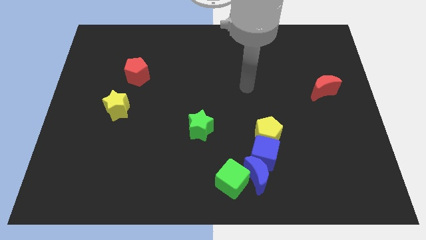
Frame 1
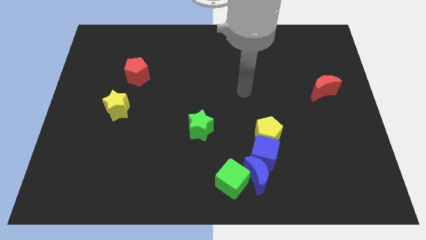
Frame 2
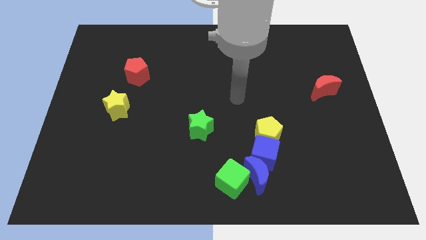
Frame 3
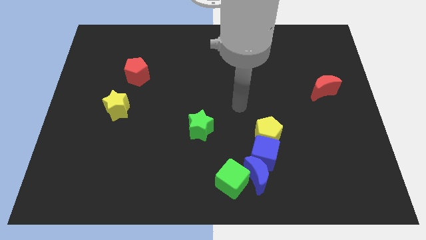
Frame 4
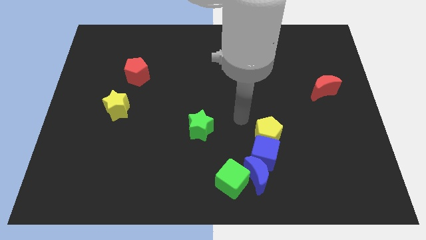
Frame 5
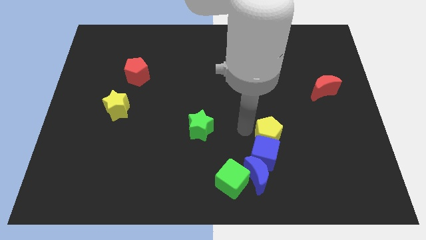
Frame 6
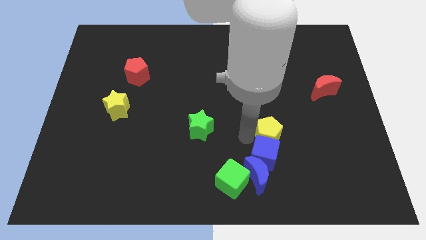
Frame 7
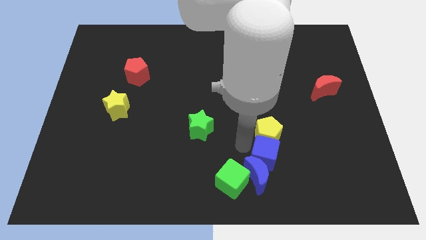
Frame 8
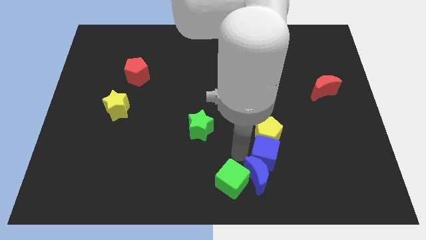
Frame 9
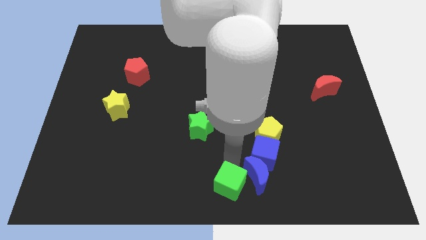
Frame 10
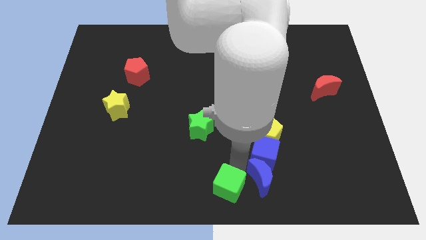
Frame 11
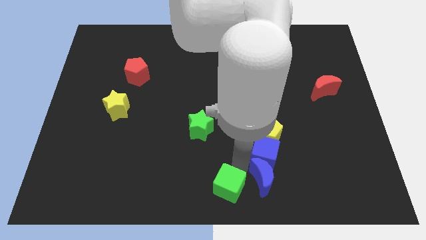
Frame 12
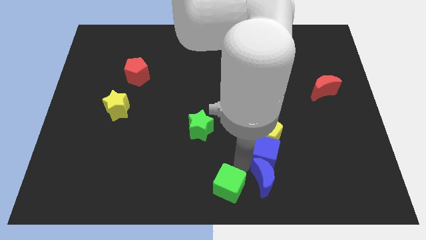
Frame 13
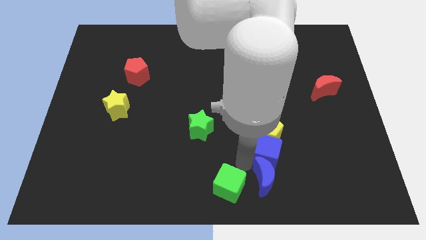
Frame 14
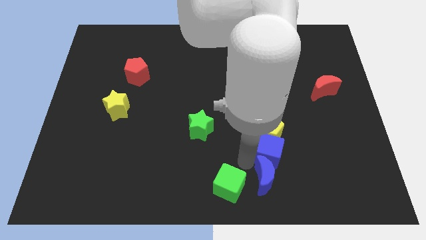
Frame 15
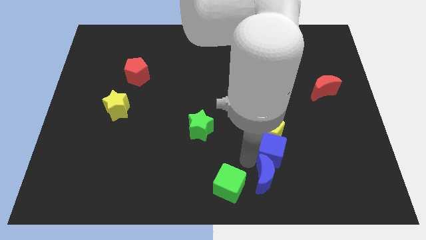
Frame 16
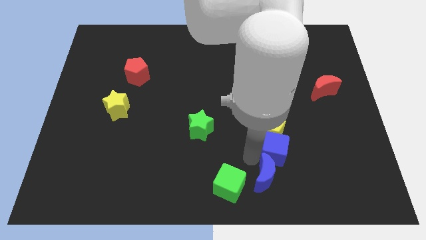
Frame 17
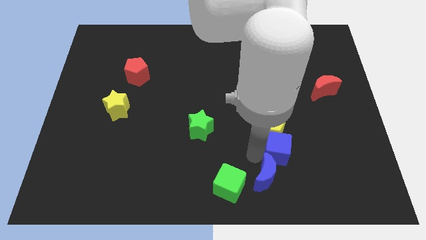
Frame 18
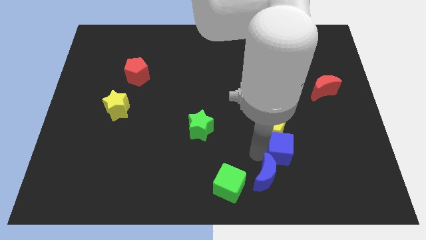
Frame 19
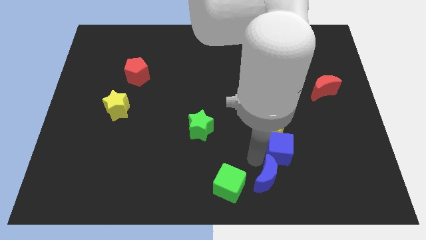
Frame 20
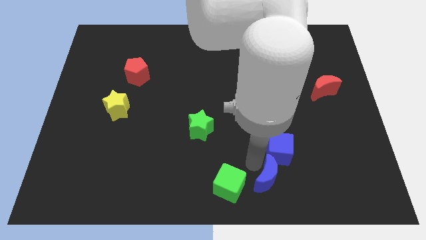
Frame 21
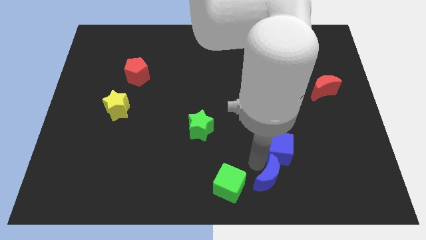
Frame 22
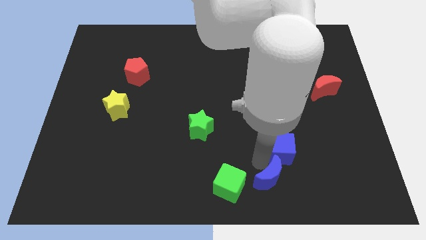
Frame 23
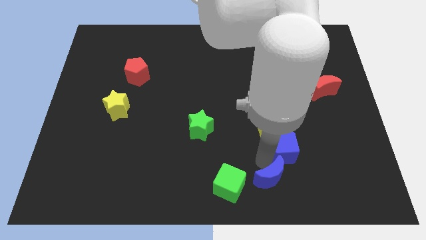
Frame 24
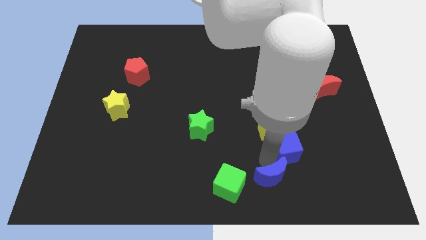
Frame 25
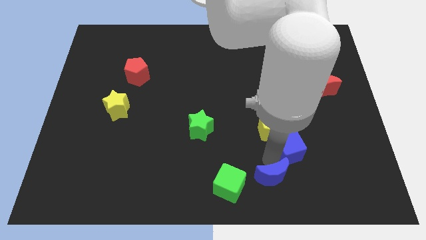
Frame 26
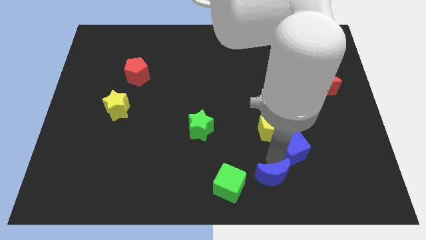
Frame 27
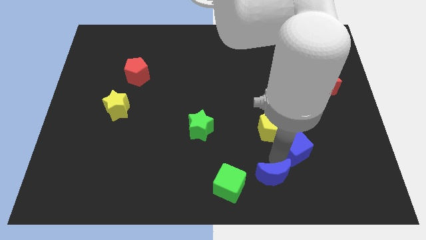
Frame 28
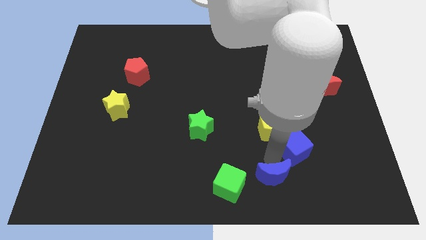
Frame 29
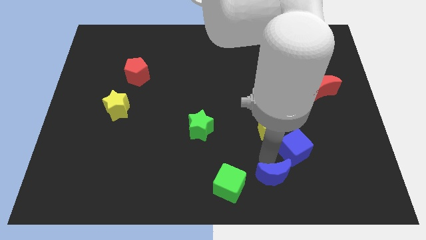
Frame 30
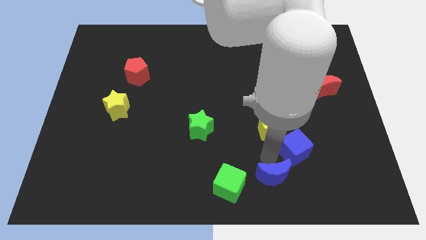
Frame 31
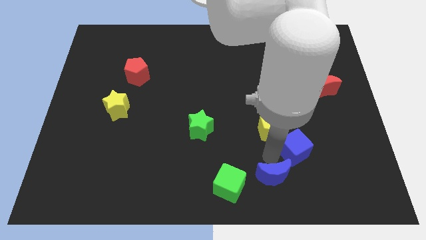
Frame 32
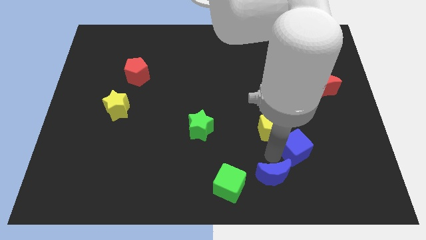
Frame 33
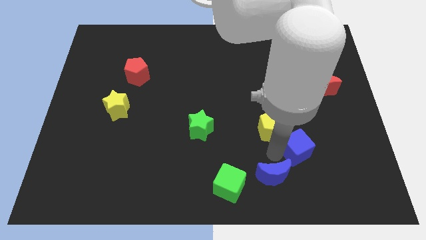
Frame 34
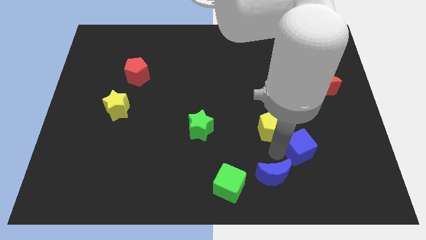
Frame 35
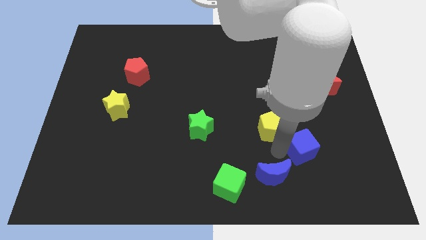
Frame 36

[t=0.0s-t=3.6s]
pull the blue cube apart from the blue moon, yellow pentagon, and green cube

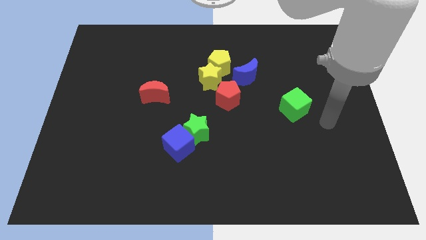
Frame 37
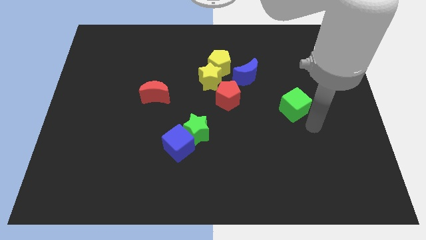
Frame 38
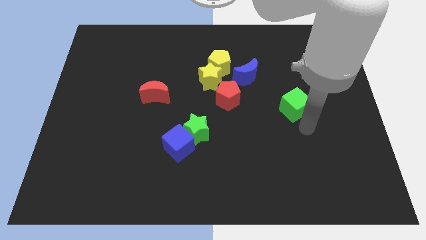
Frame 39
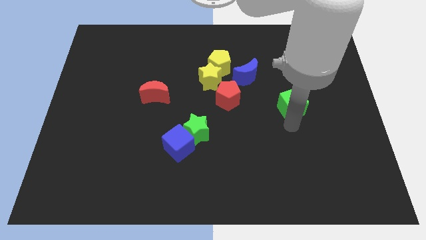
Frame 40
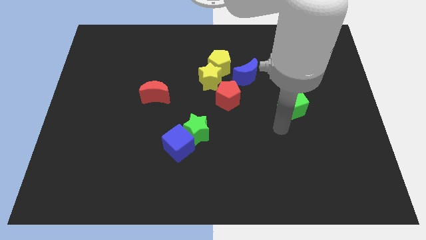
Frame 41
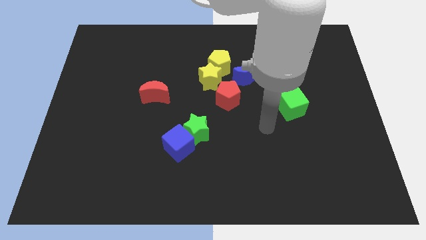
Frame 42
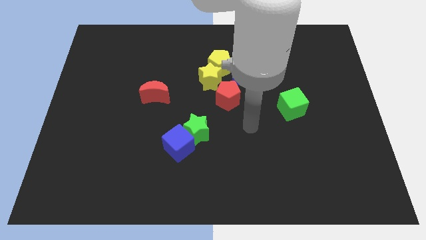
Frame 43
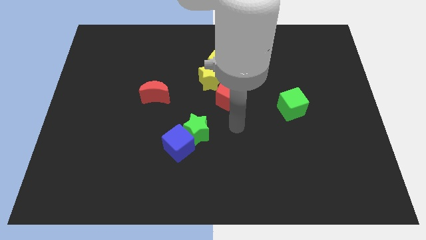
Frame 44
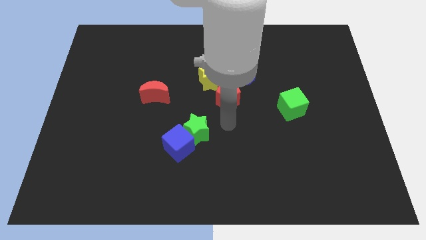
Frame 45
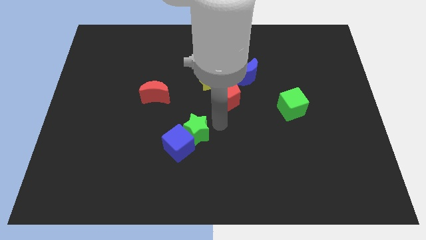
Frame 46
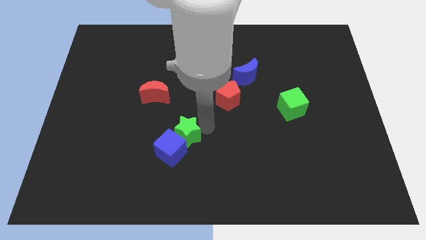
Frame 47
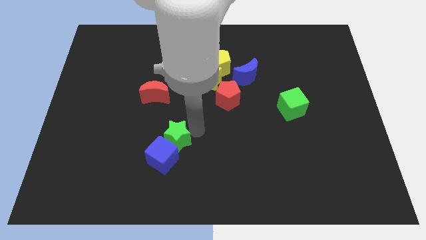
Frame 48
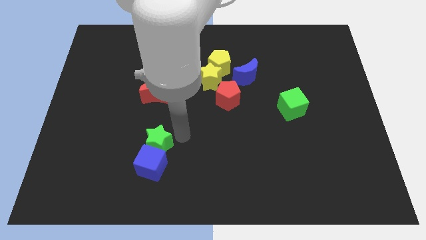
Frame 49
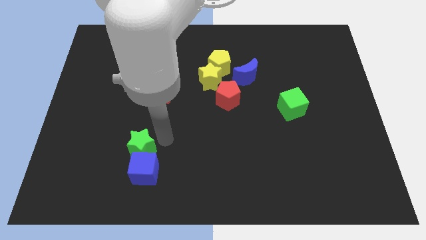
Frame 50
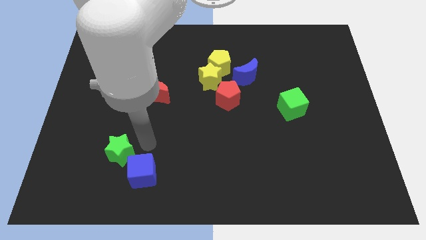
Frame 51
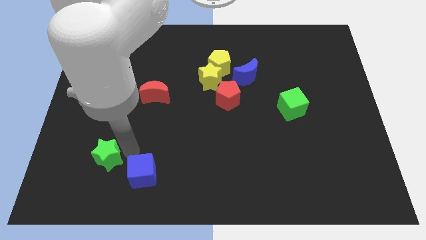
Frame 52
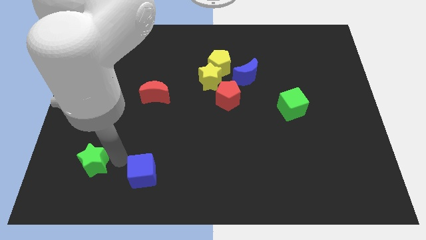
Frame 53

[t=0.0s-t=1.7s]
move the blue cube away from the green star

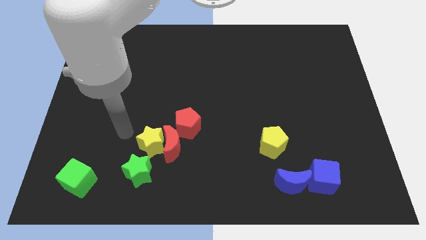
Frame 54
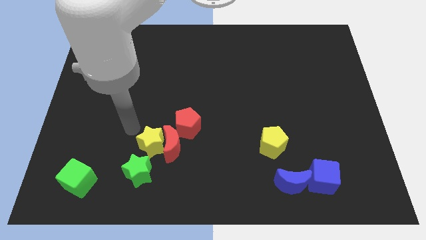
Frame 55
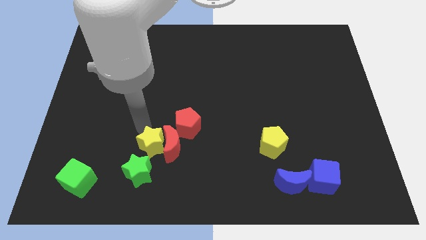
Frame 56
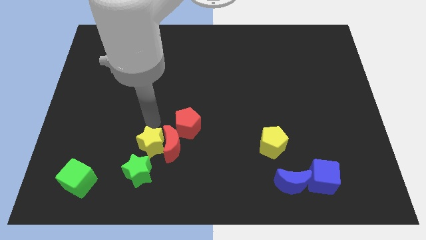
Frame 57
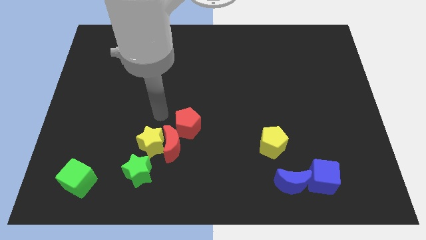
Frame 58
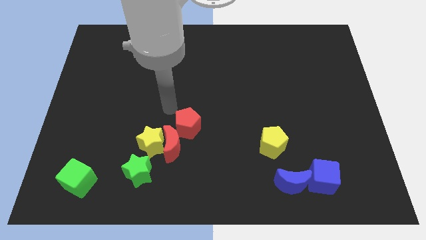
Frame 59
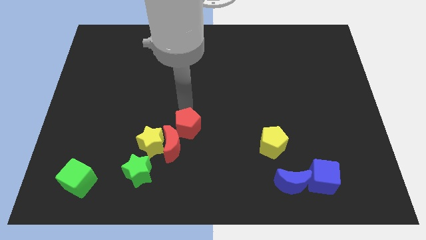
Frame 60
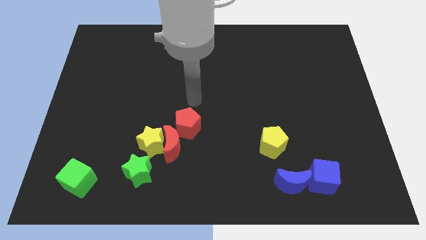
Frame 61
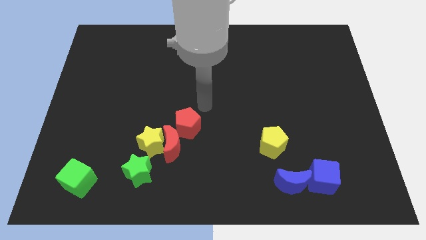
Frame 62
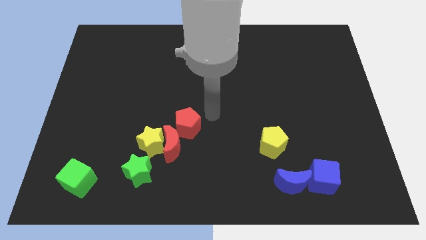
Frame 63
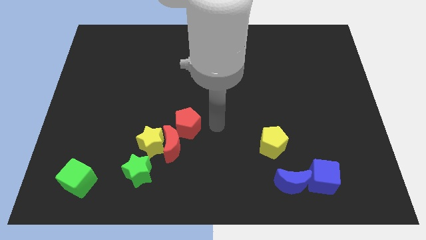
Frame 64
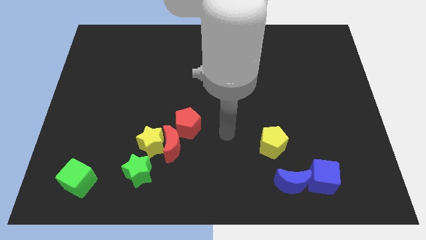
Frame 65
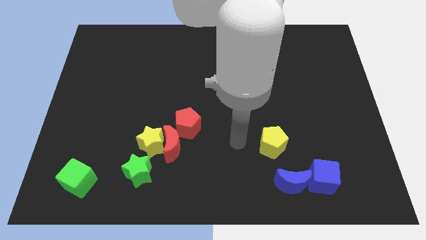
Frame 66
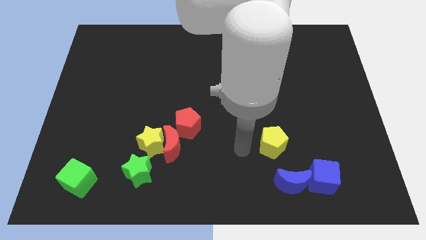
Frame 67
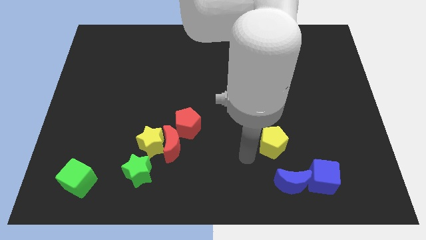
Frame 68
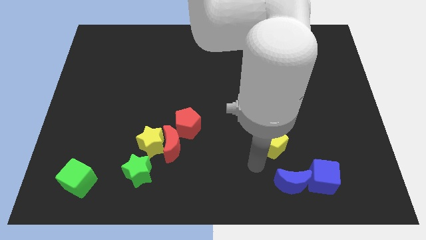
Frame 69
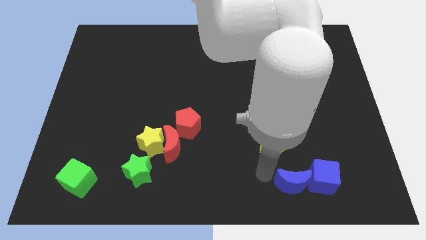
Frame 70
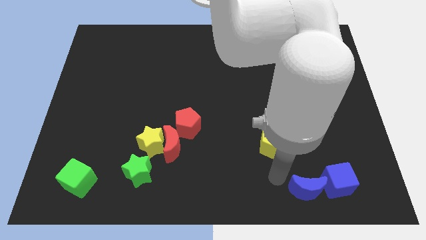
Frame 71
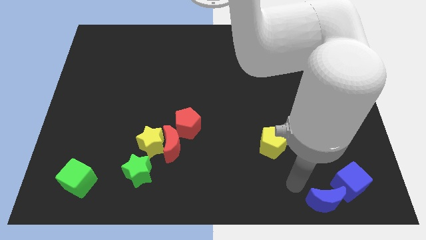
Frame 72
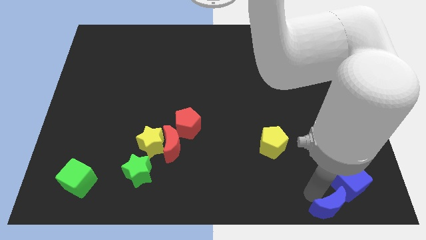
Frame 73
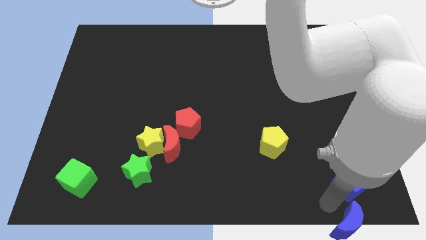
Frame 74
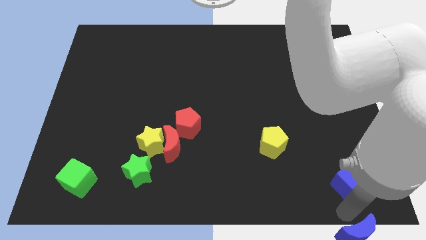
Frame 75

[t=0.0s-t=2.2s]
pull the blue cube apart from the blue moon

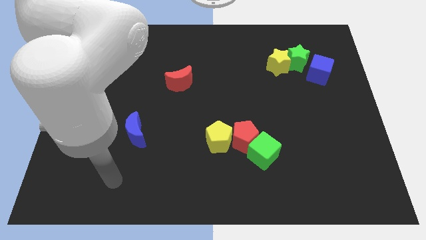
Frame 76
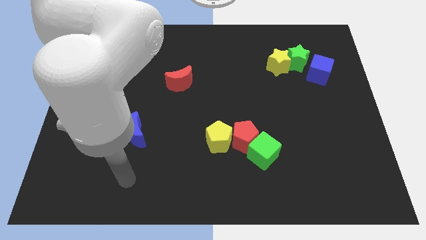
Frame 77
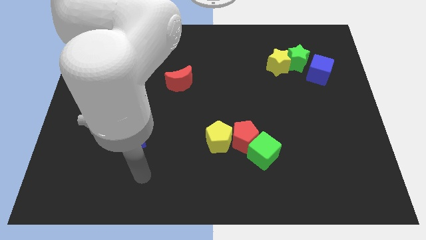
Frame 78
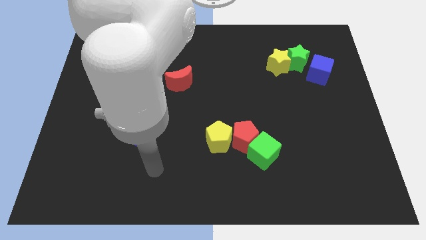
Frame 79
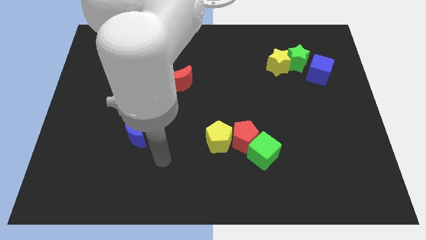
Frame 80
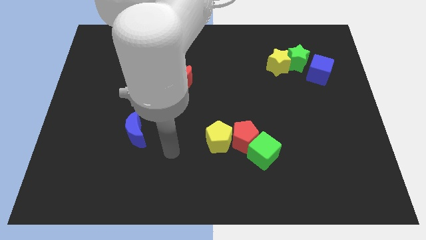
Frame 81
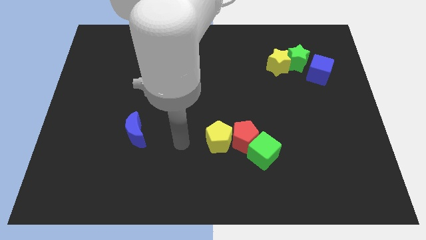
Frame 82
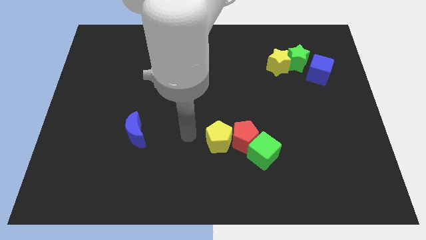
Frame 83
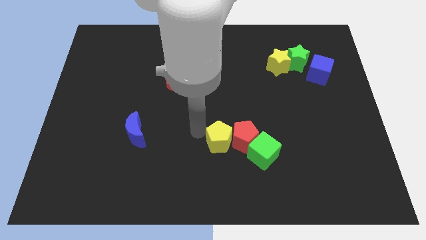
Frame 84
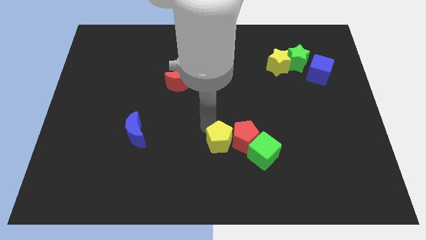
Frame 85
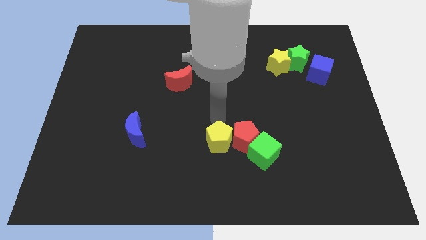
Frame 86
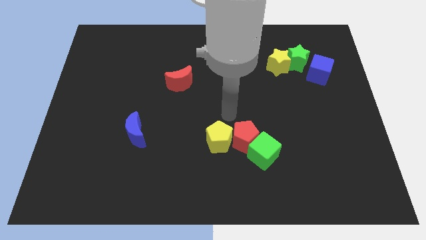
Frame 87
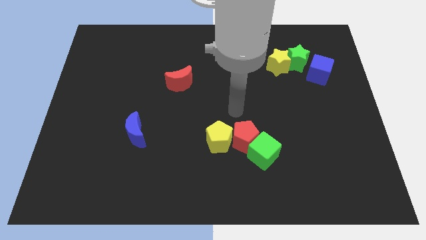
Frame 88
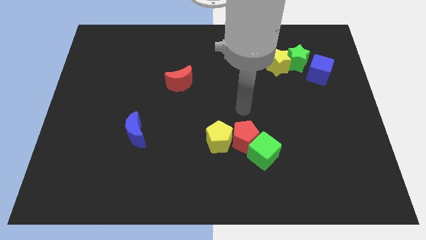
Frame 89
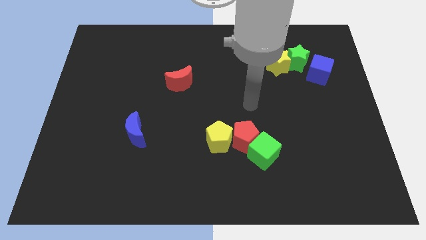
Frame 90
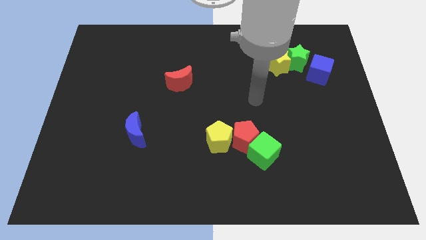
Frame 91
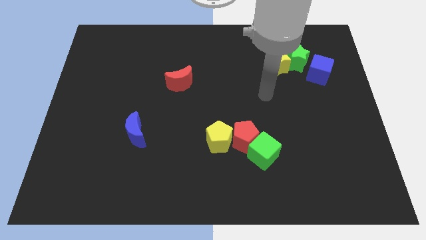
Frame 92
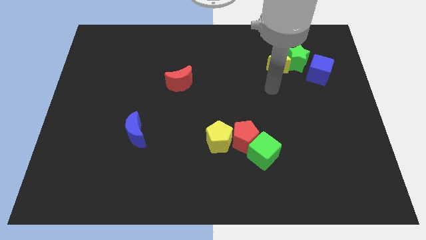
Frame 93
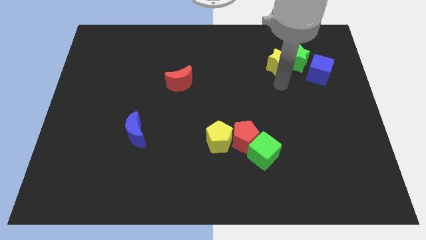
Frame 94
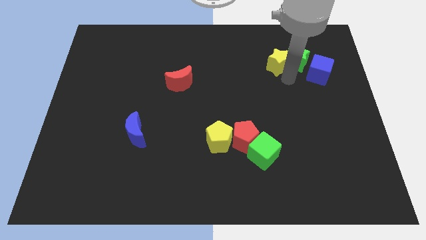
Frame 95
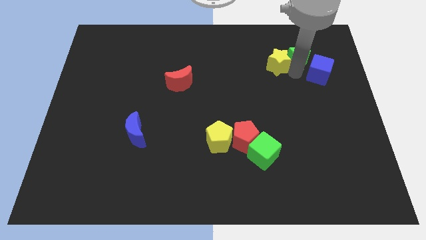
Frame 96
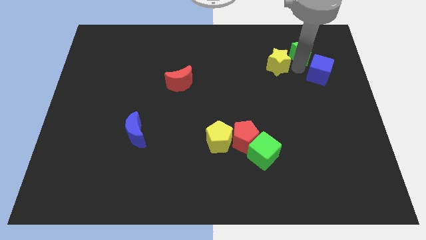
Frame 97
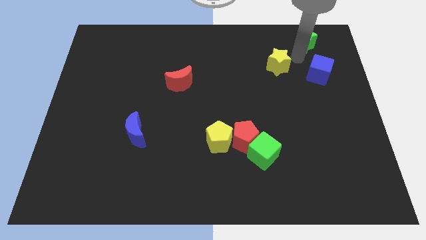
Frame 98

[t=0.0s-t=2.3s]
pull the yellow star apart from the green star
